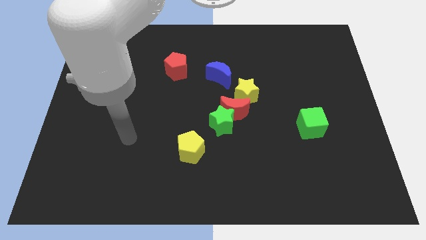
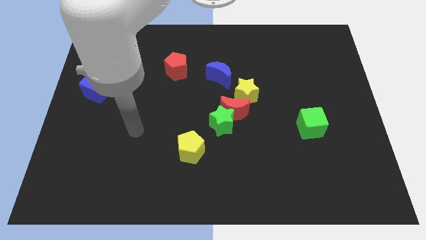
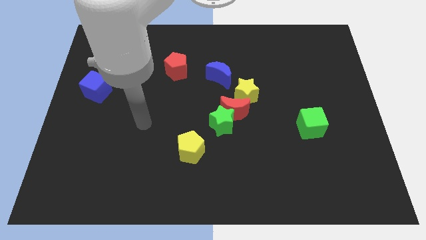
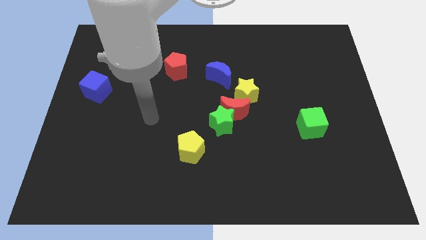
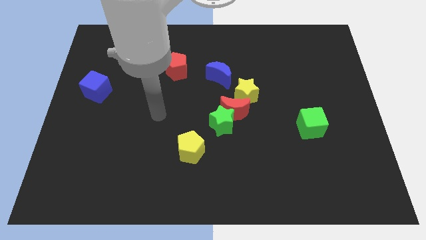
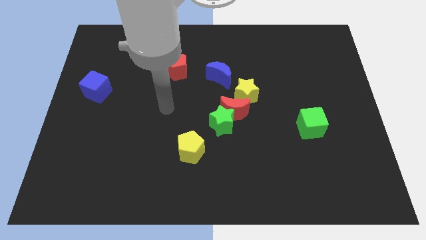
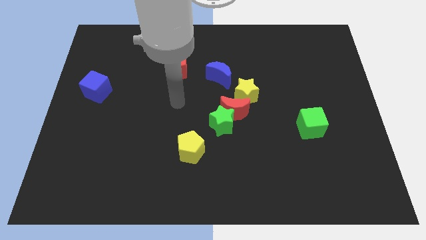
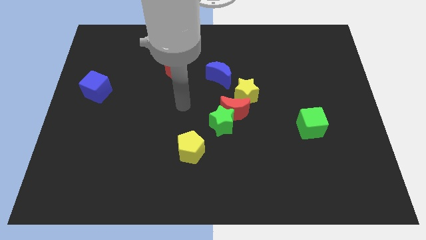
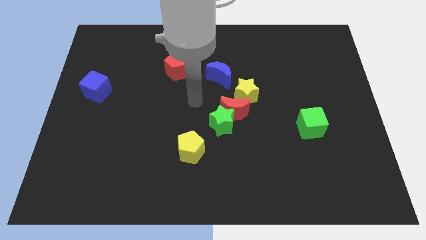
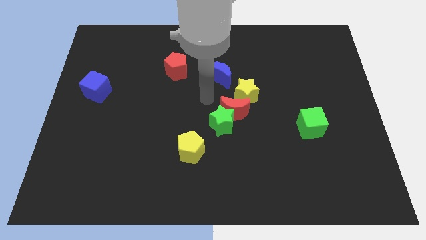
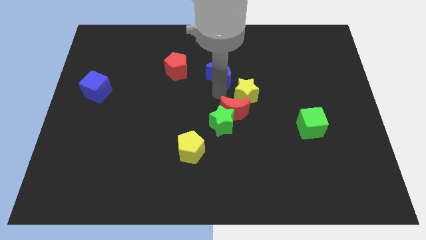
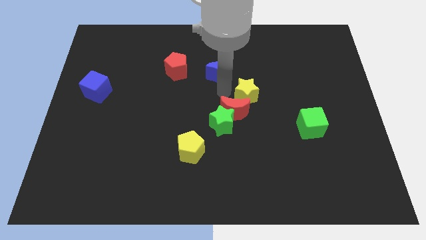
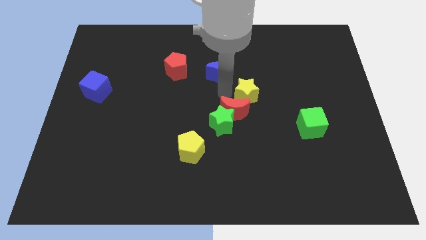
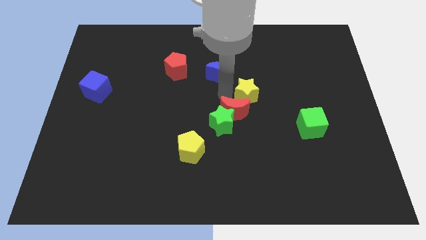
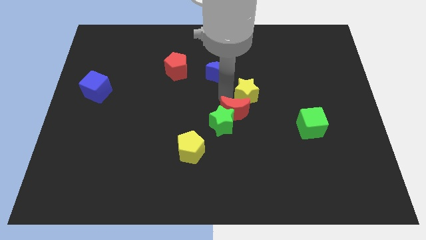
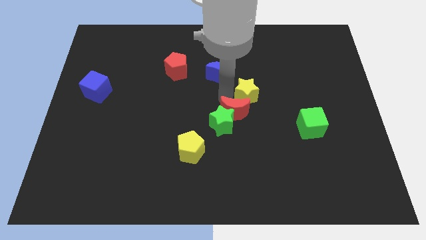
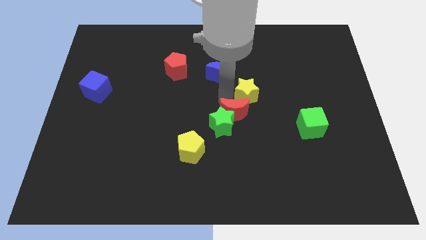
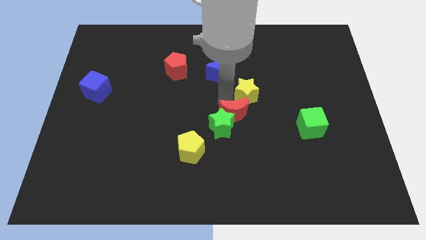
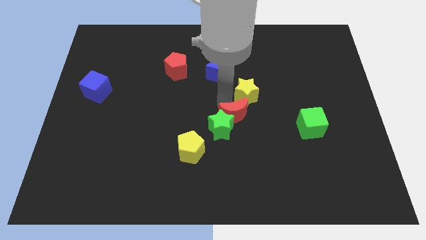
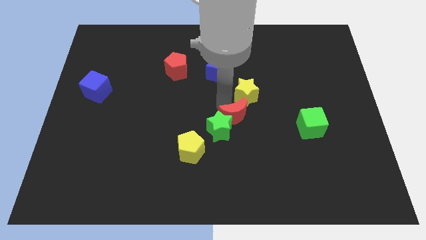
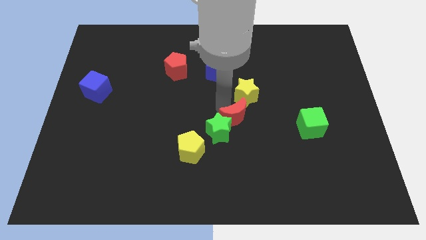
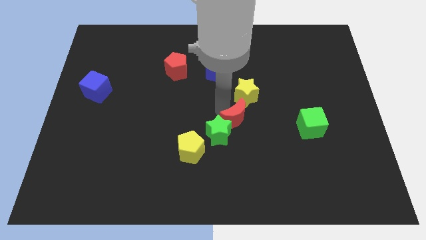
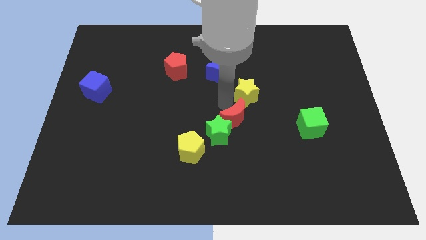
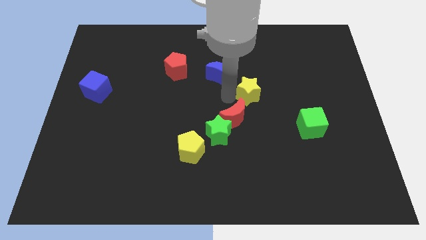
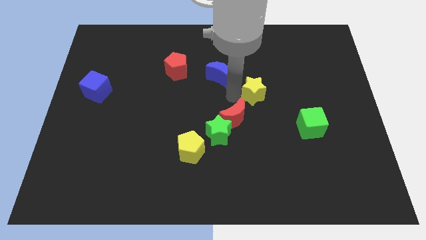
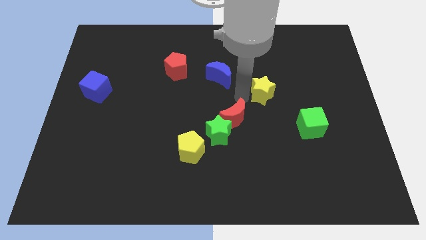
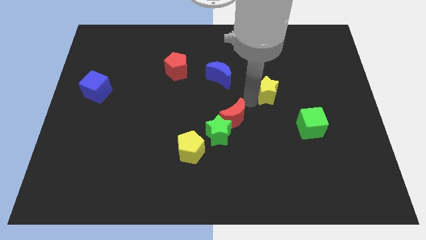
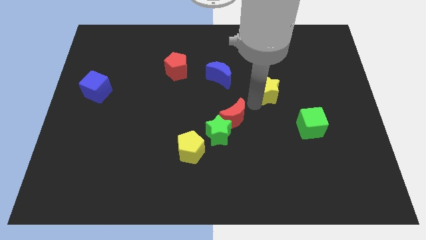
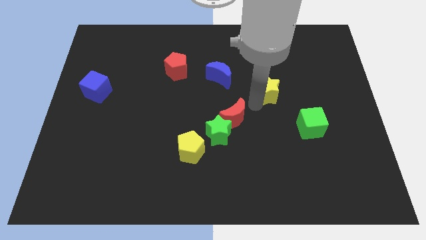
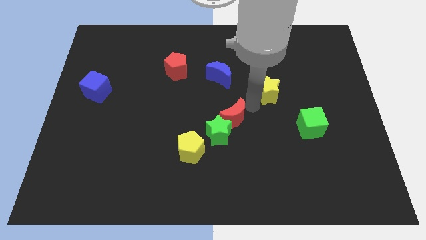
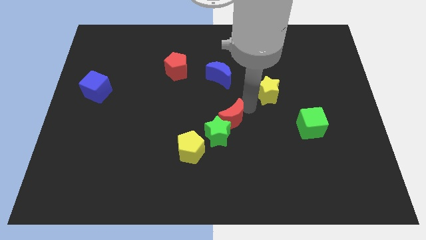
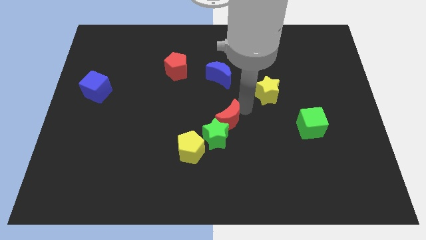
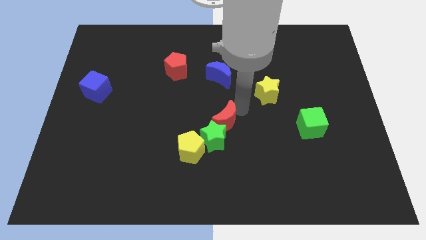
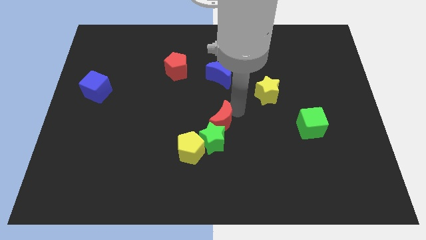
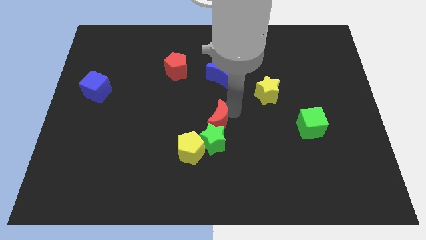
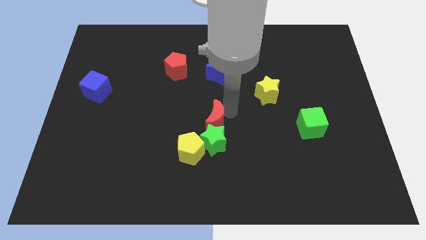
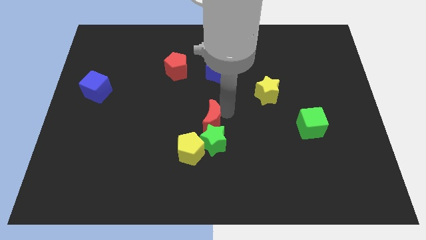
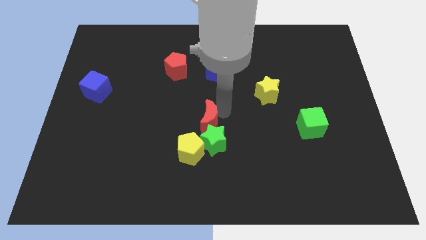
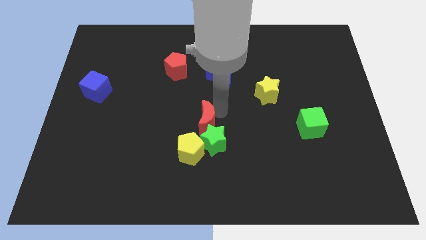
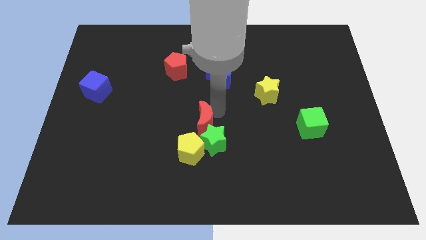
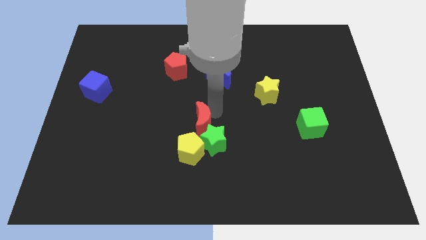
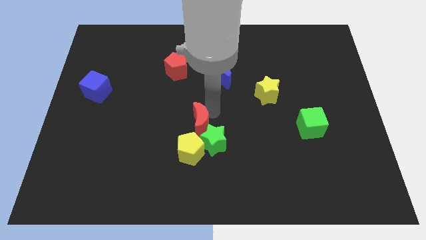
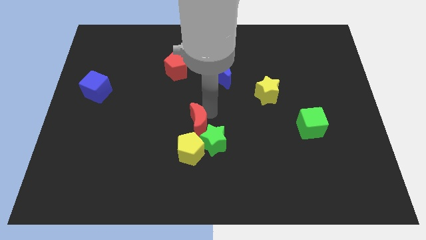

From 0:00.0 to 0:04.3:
pull the red moon apart from the green star and yellow star

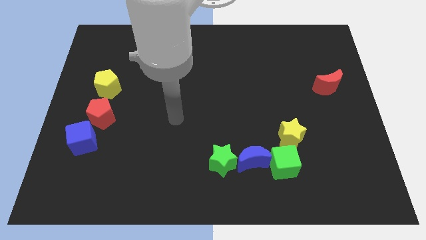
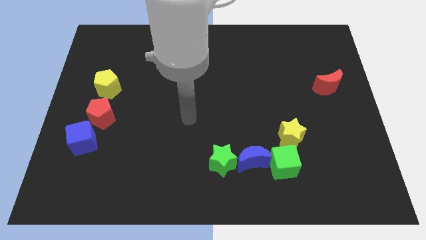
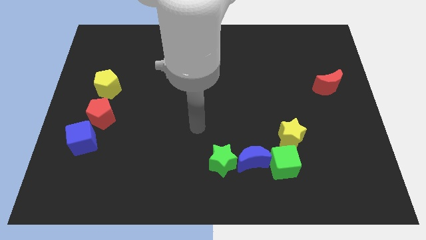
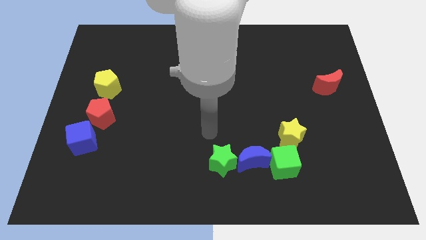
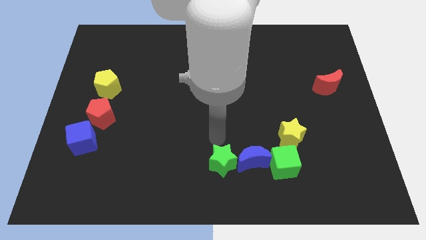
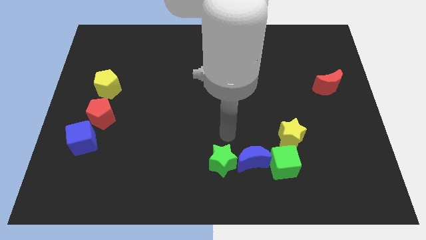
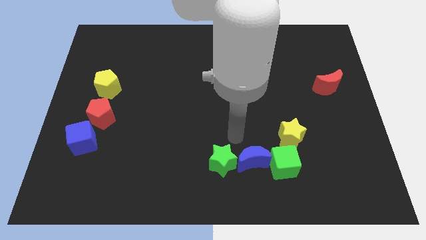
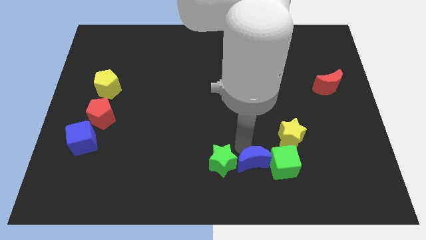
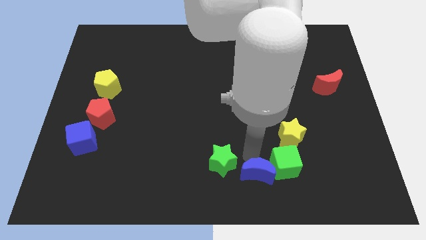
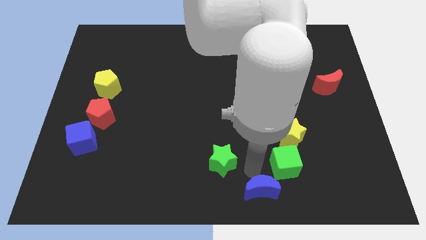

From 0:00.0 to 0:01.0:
separate the green star from the blue moon

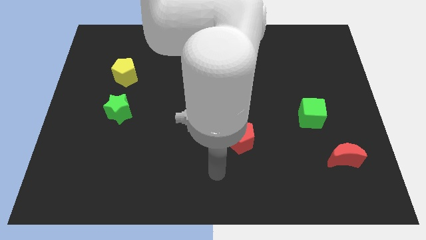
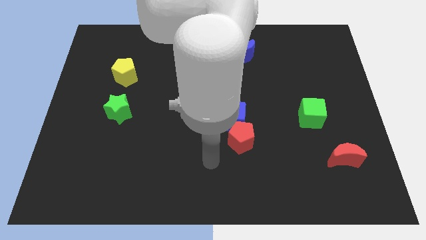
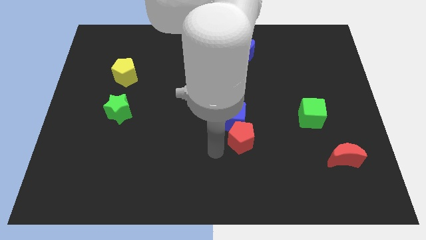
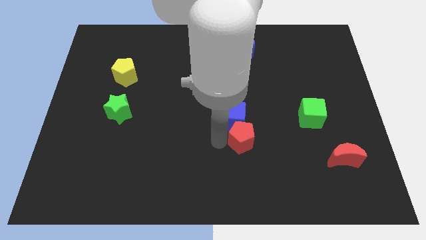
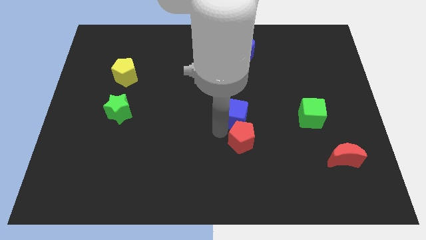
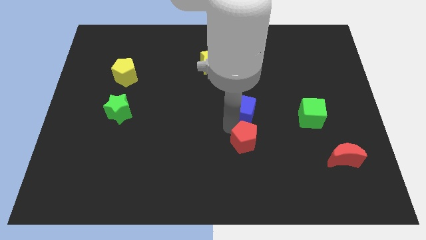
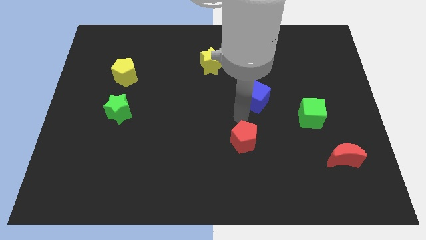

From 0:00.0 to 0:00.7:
separate the red pentagon from the blue cube

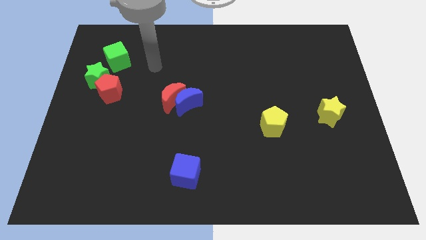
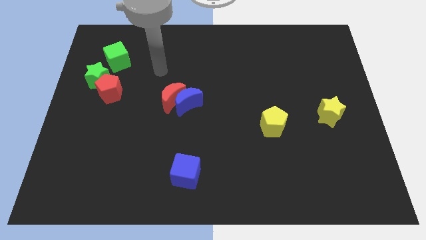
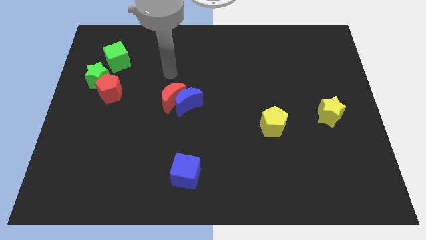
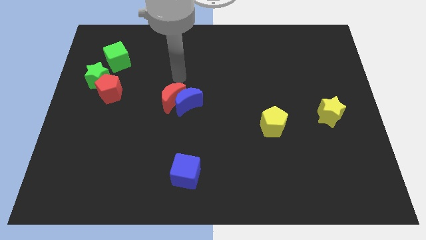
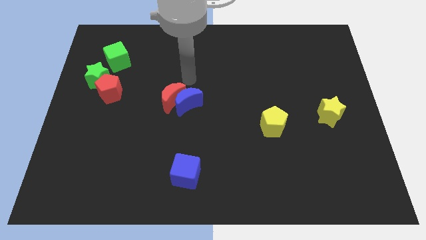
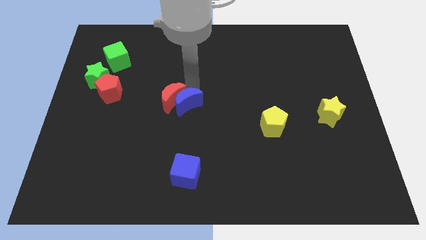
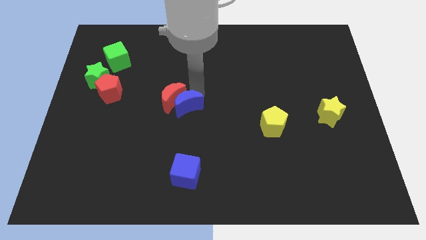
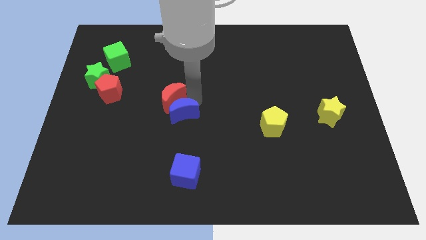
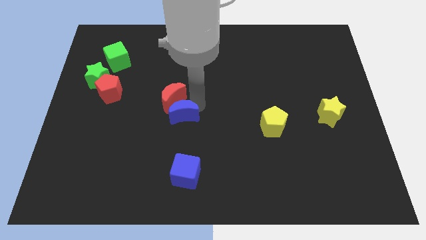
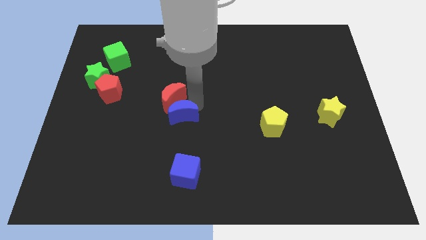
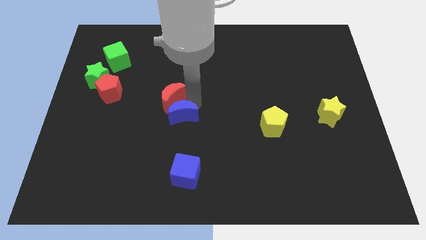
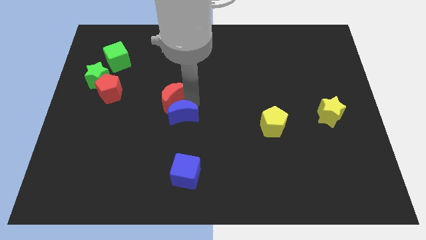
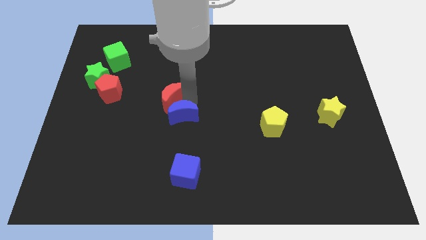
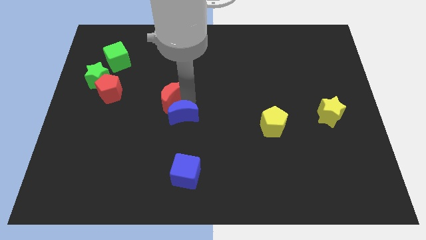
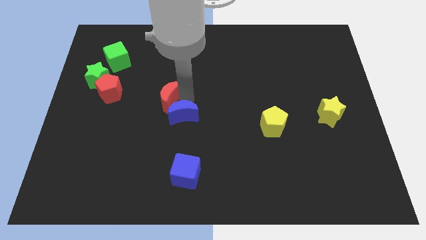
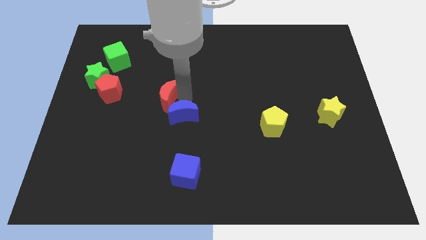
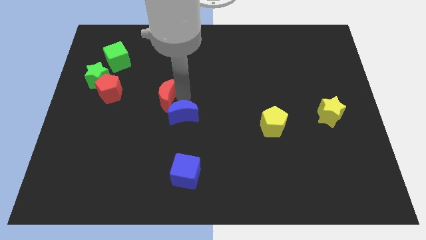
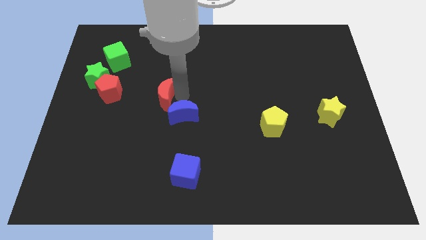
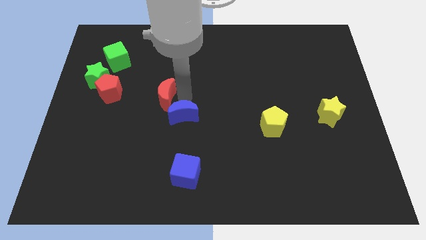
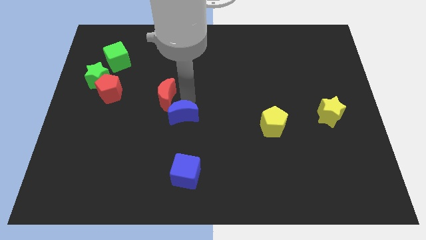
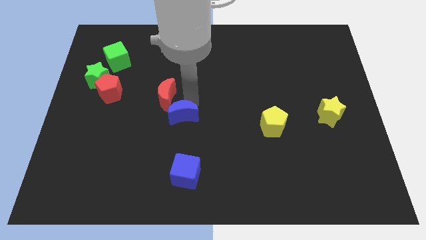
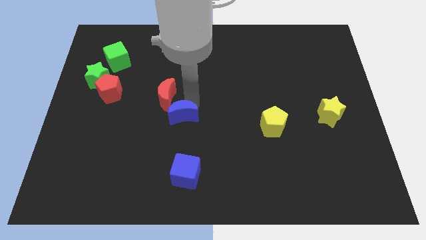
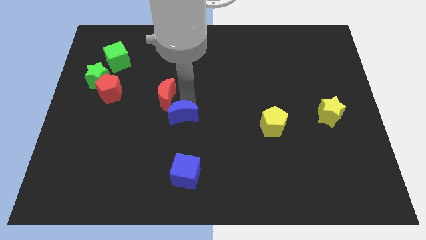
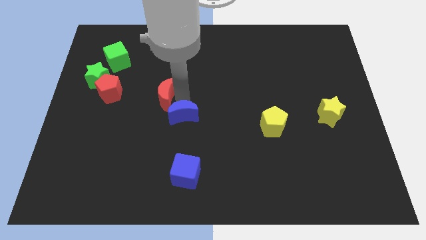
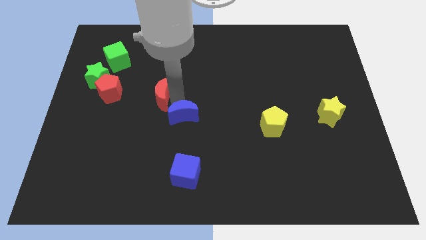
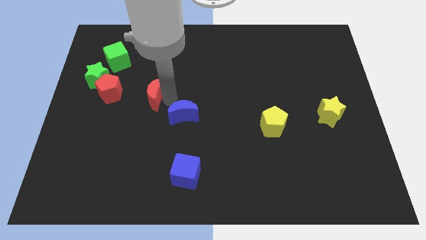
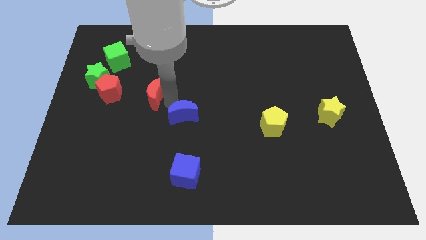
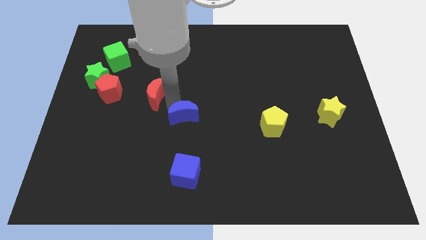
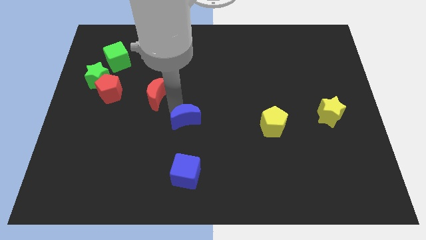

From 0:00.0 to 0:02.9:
move the red moon away from the blue moon

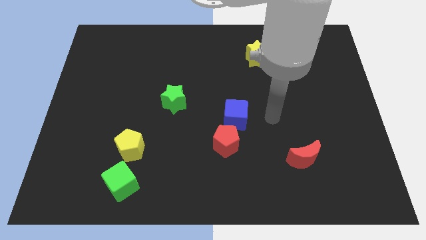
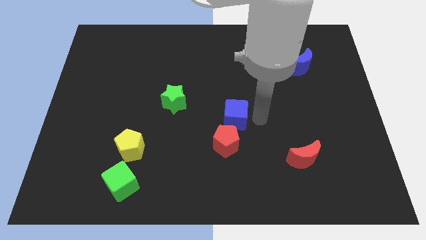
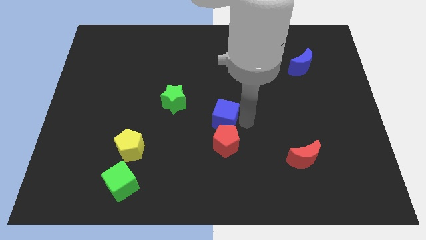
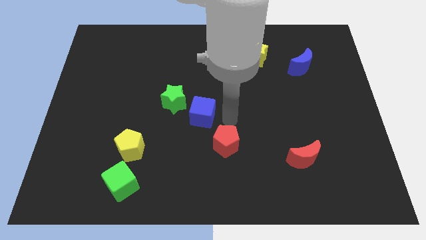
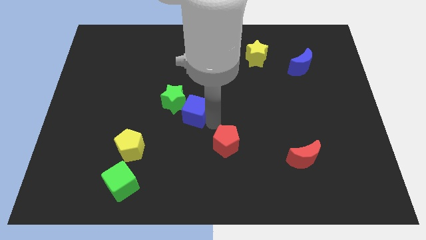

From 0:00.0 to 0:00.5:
pull the red pentagon apart from the blue cube
